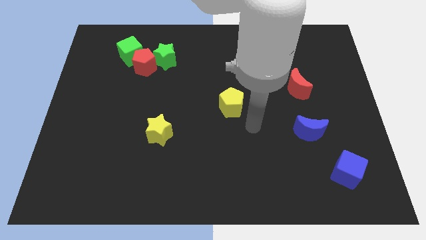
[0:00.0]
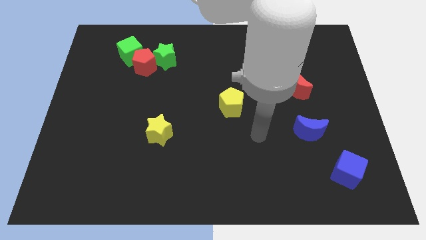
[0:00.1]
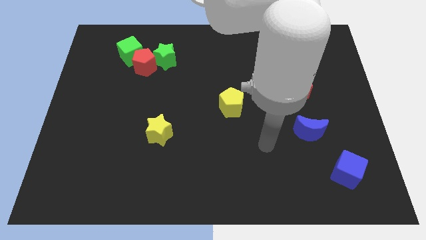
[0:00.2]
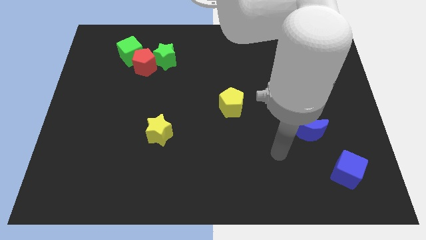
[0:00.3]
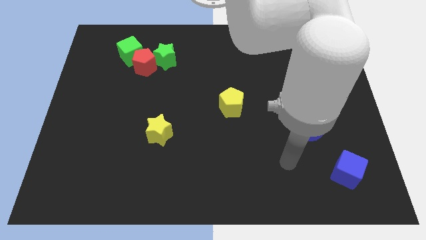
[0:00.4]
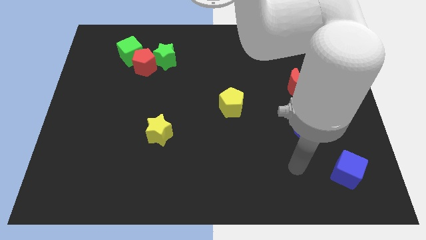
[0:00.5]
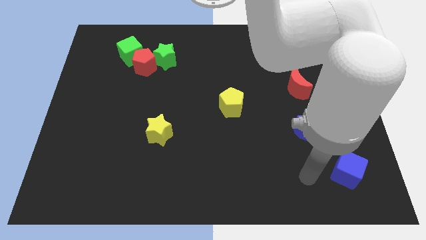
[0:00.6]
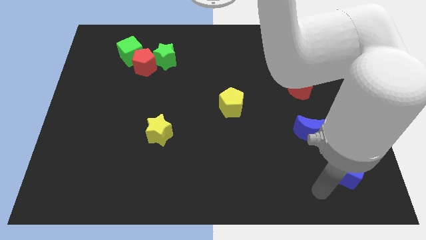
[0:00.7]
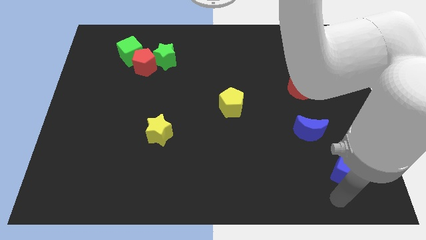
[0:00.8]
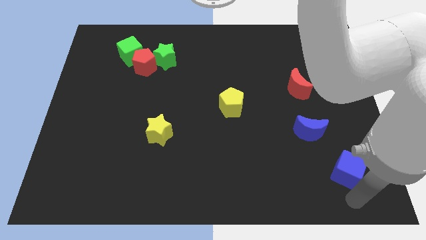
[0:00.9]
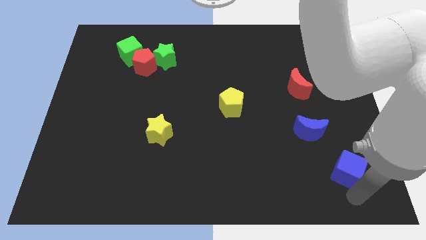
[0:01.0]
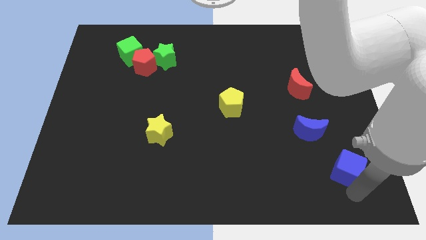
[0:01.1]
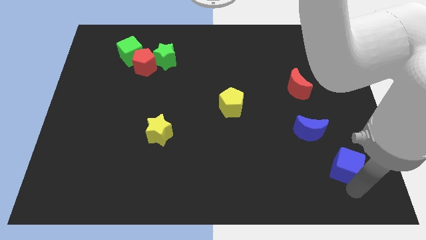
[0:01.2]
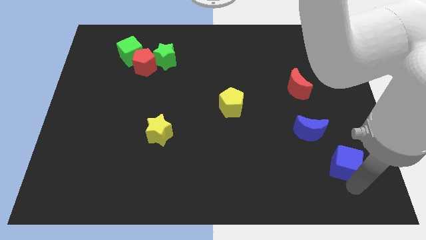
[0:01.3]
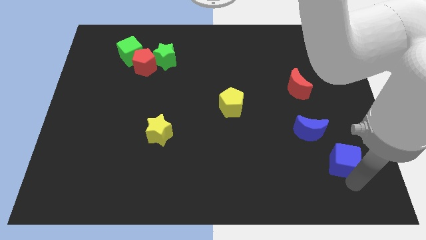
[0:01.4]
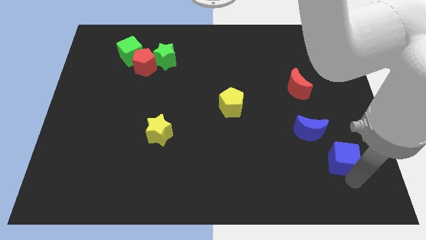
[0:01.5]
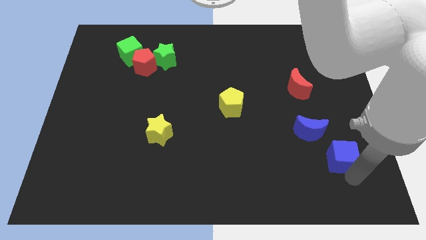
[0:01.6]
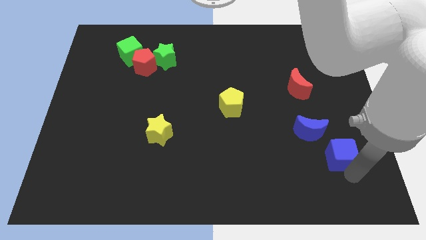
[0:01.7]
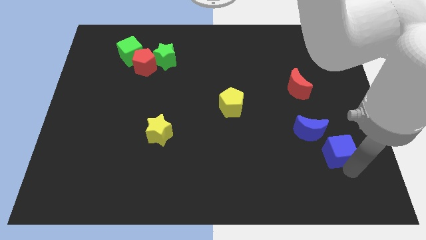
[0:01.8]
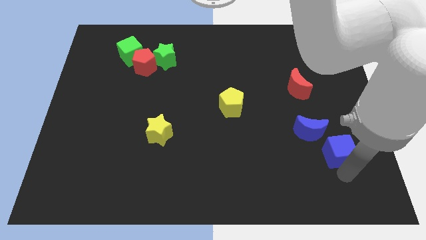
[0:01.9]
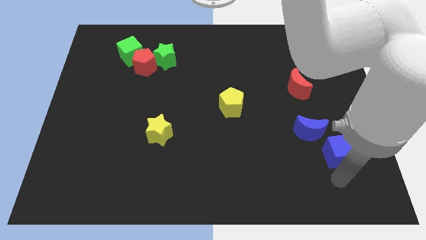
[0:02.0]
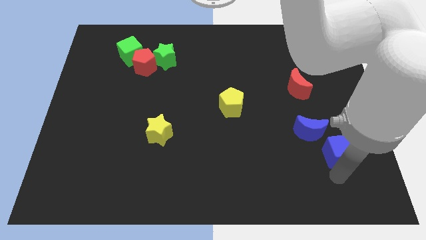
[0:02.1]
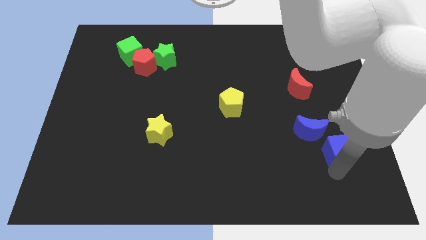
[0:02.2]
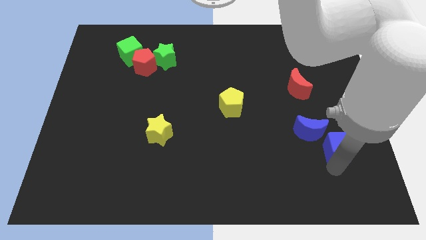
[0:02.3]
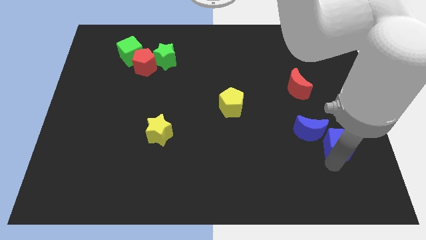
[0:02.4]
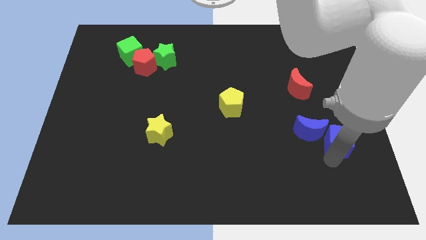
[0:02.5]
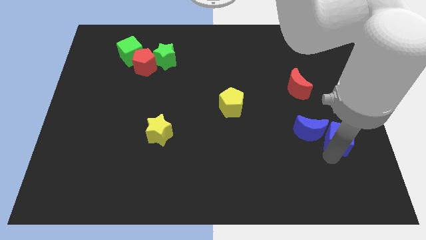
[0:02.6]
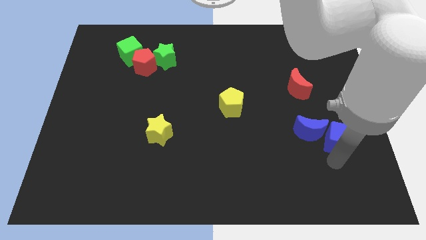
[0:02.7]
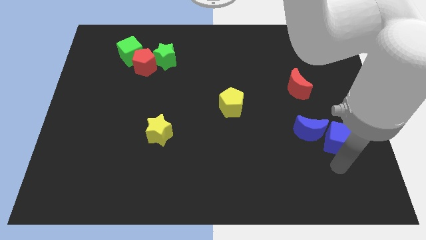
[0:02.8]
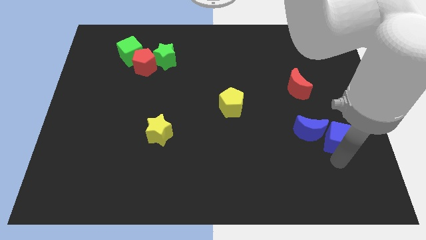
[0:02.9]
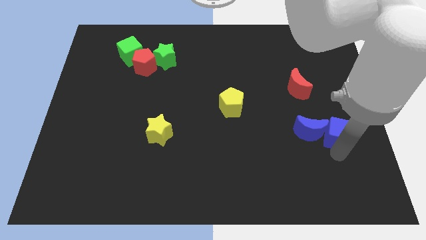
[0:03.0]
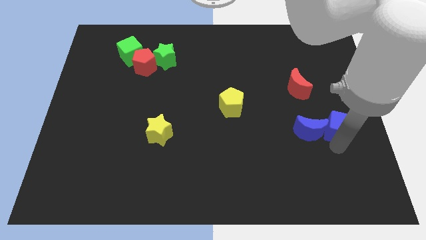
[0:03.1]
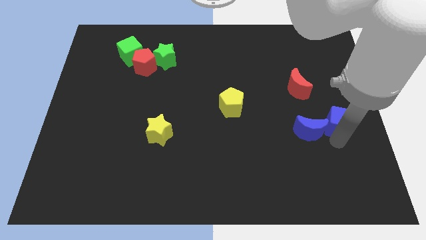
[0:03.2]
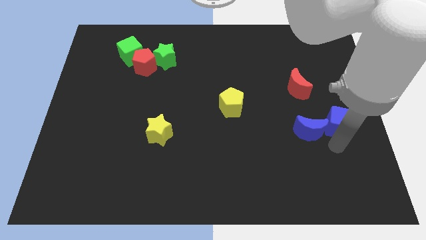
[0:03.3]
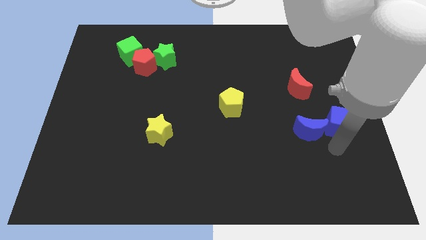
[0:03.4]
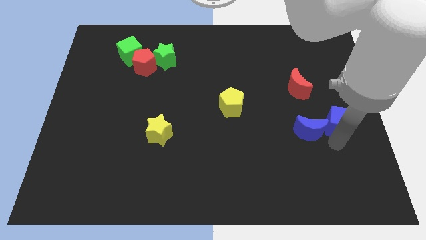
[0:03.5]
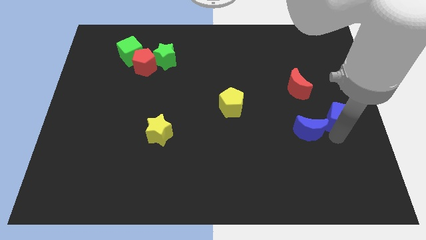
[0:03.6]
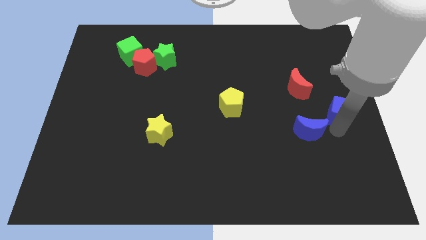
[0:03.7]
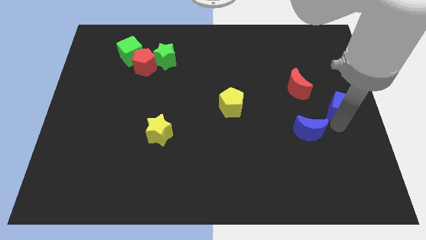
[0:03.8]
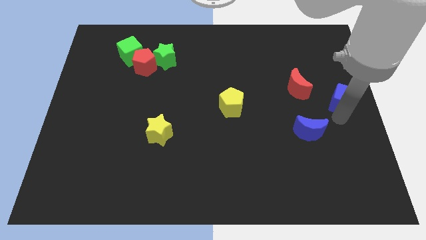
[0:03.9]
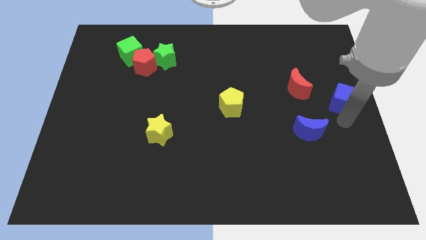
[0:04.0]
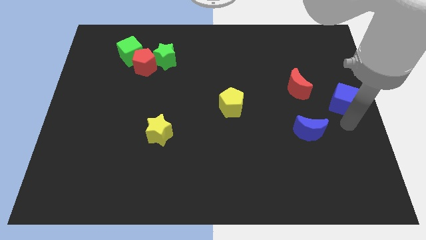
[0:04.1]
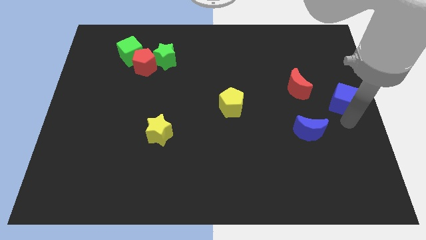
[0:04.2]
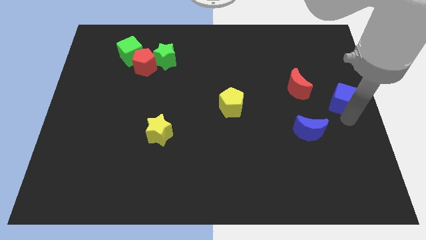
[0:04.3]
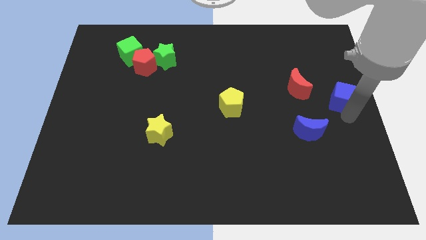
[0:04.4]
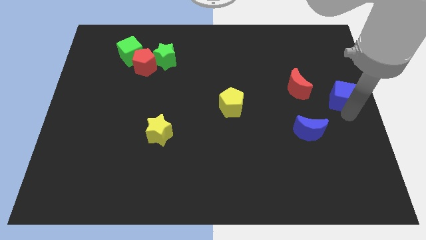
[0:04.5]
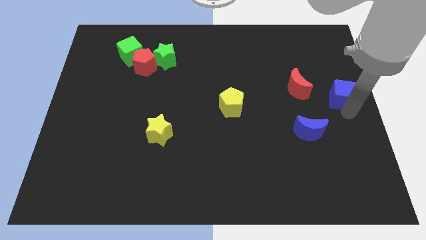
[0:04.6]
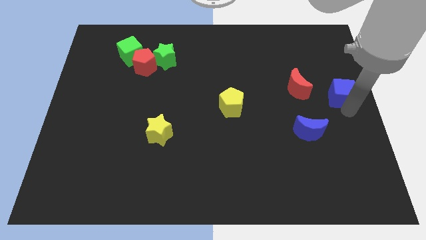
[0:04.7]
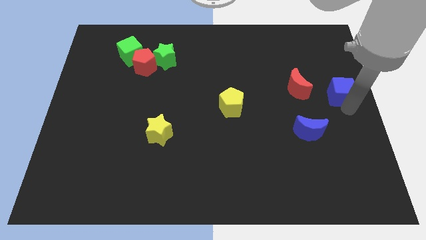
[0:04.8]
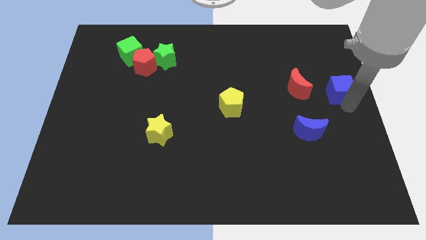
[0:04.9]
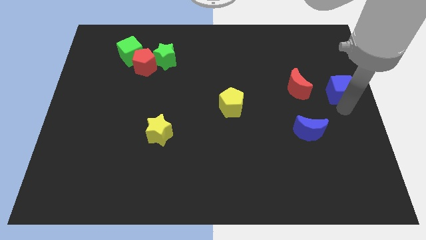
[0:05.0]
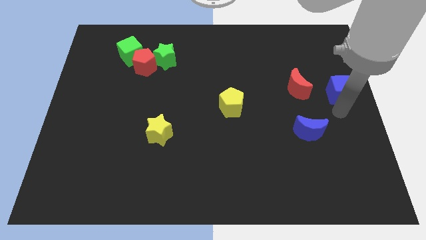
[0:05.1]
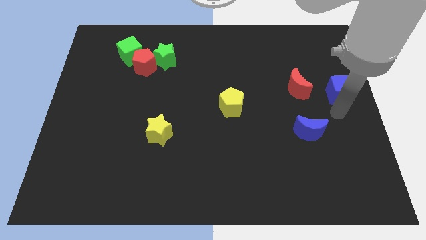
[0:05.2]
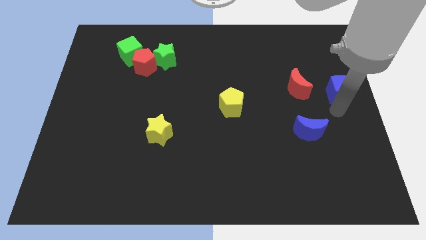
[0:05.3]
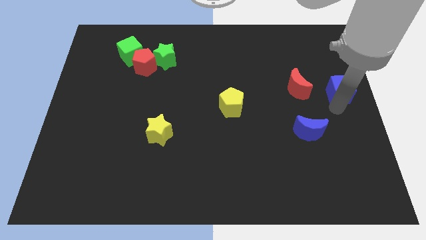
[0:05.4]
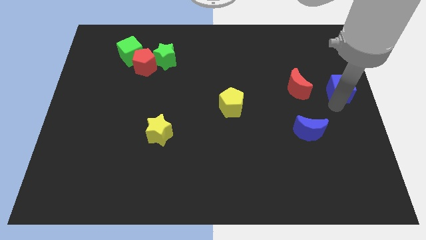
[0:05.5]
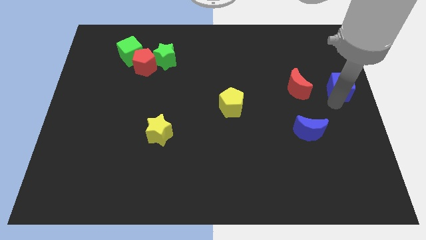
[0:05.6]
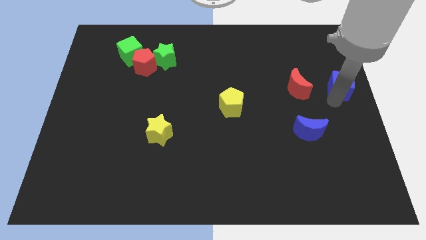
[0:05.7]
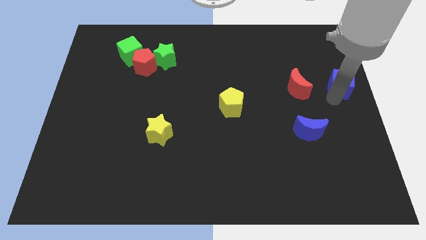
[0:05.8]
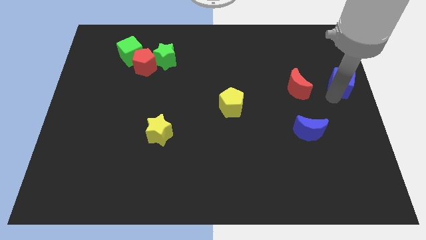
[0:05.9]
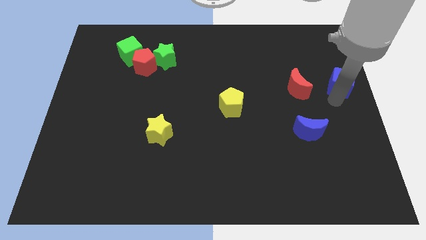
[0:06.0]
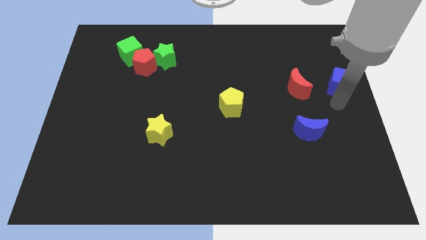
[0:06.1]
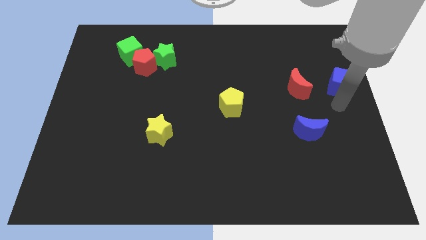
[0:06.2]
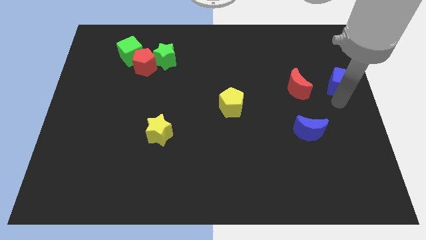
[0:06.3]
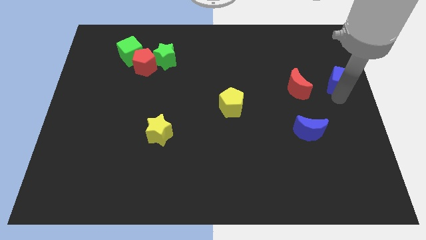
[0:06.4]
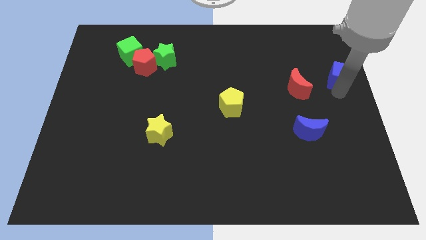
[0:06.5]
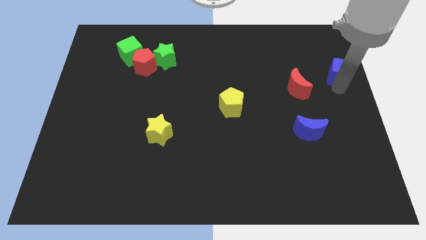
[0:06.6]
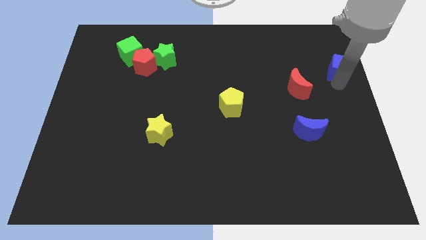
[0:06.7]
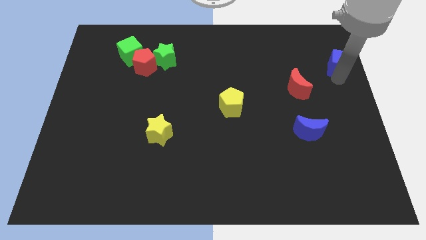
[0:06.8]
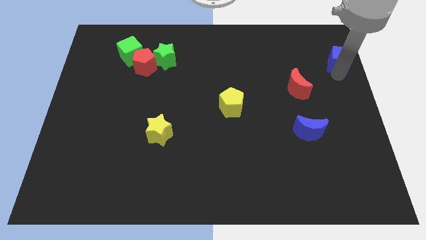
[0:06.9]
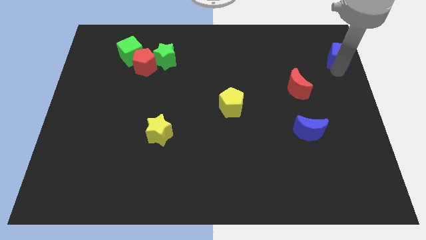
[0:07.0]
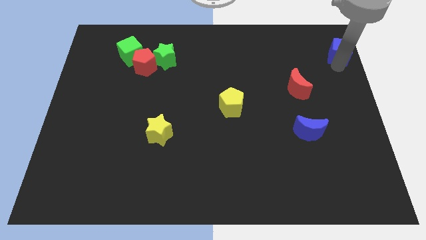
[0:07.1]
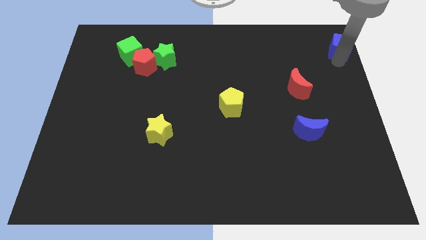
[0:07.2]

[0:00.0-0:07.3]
put the blue cube to the top right of the board
